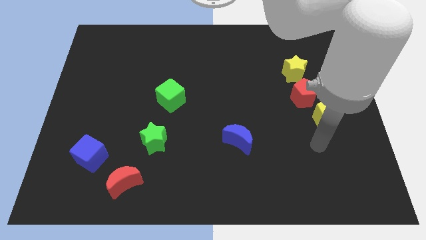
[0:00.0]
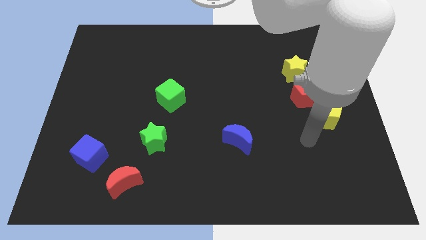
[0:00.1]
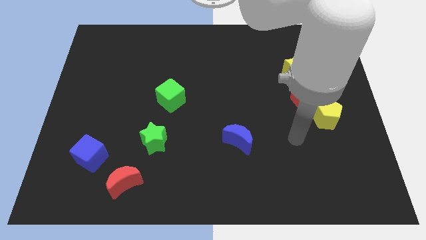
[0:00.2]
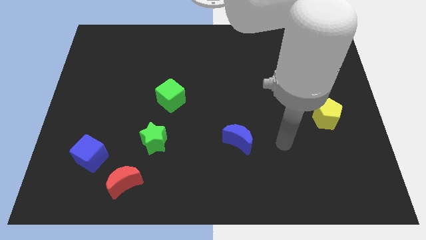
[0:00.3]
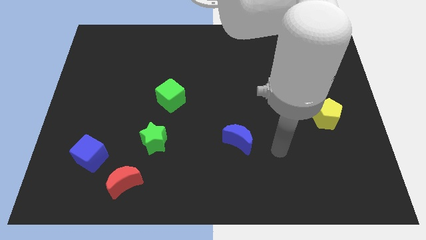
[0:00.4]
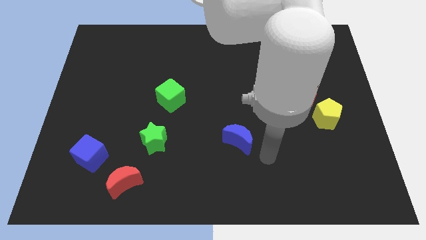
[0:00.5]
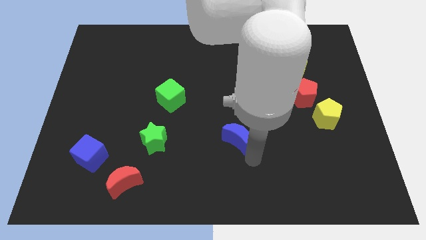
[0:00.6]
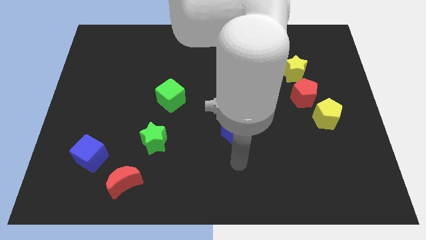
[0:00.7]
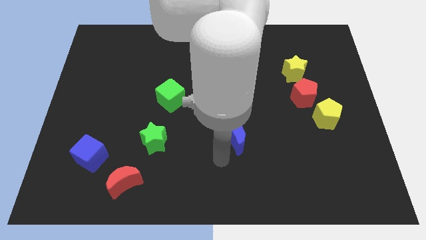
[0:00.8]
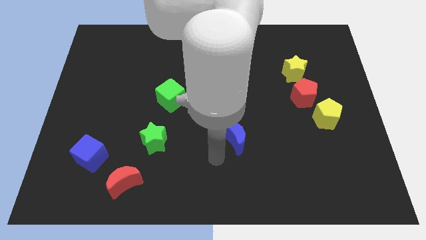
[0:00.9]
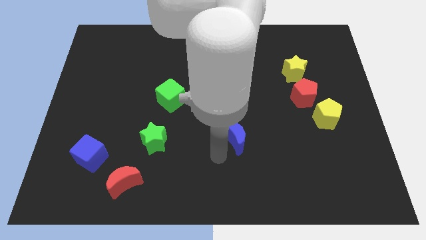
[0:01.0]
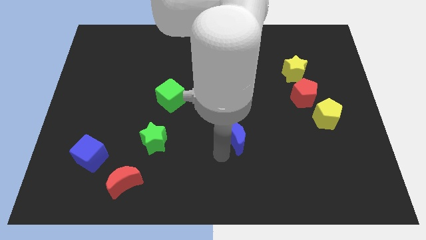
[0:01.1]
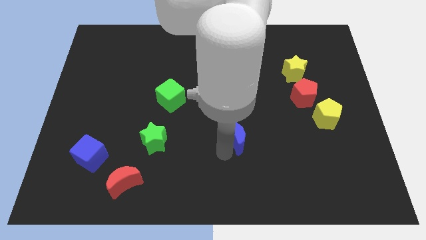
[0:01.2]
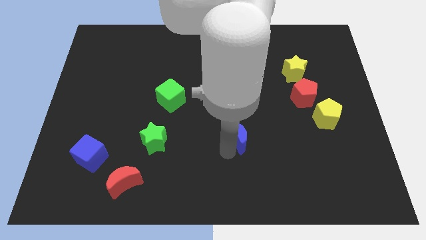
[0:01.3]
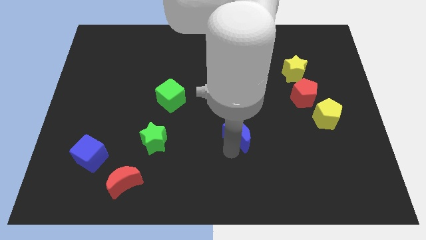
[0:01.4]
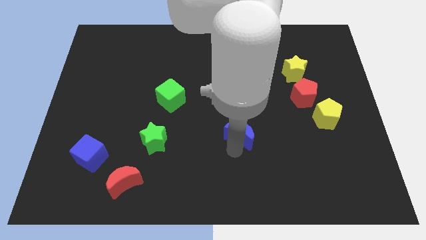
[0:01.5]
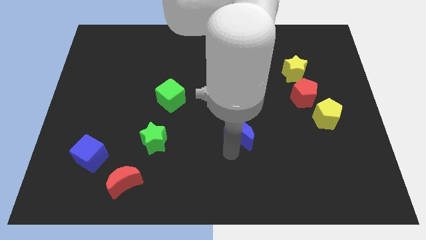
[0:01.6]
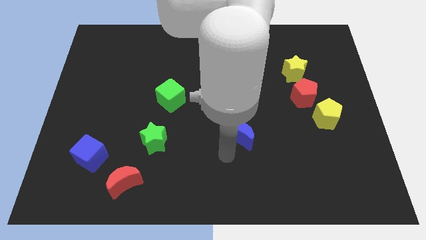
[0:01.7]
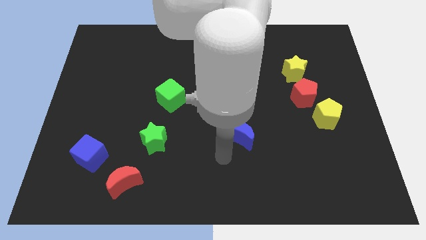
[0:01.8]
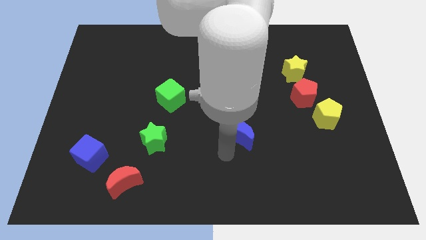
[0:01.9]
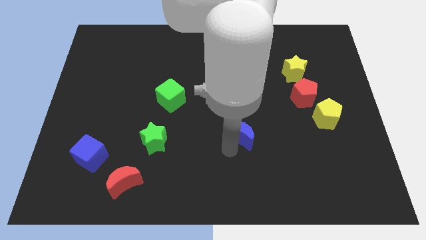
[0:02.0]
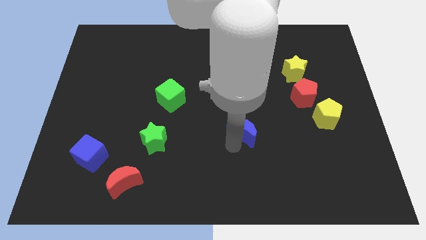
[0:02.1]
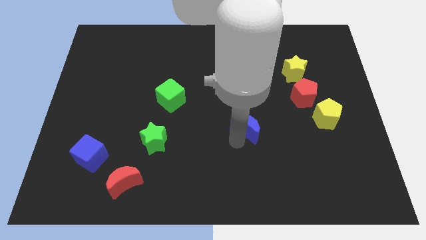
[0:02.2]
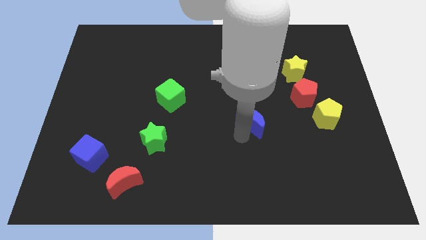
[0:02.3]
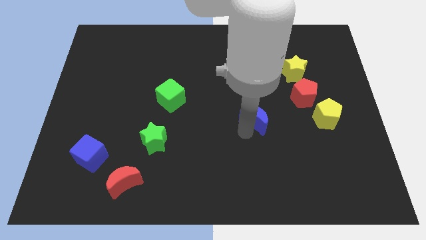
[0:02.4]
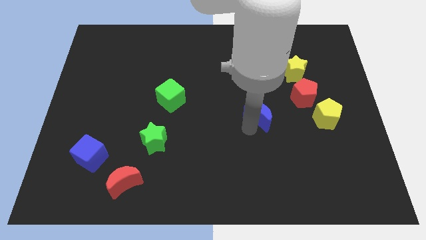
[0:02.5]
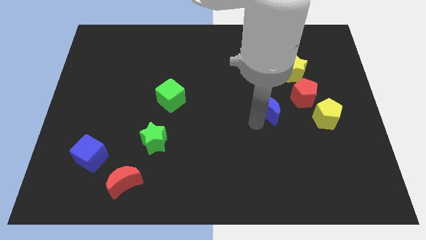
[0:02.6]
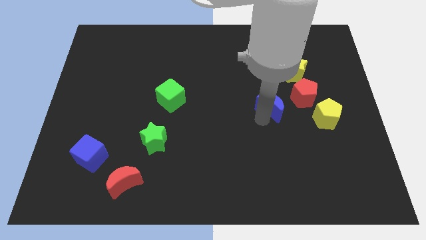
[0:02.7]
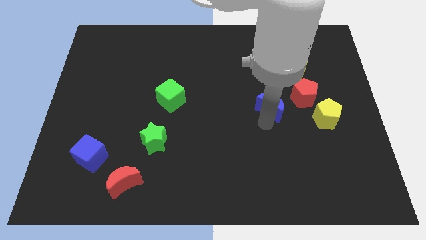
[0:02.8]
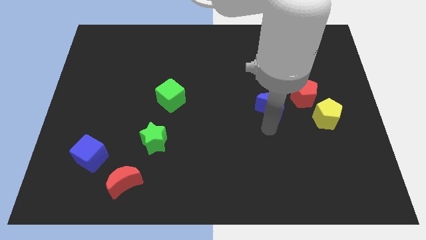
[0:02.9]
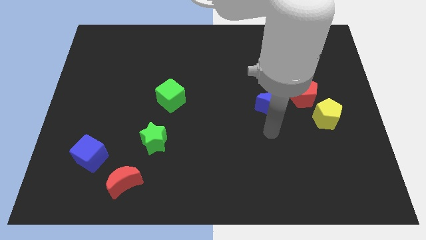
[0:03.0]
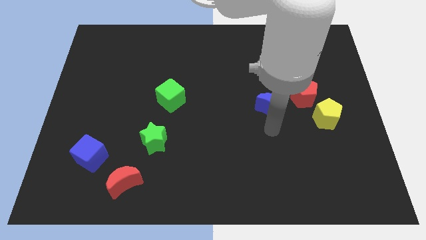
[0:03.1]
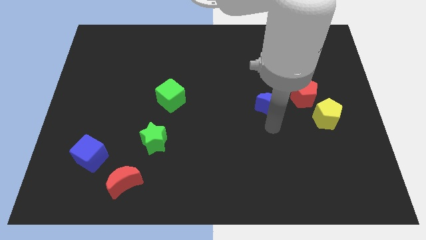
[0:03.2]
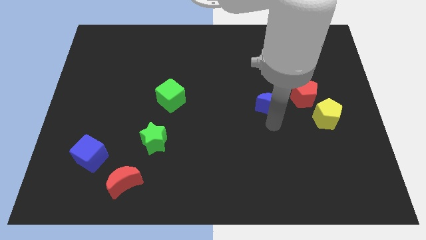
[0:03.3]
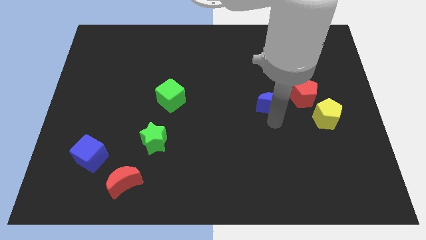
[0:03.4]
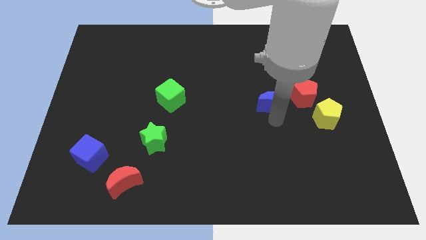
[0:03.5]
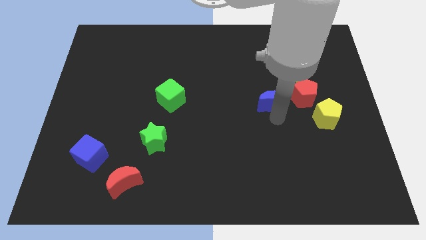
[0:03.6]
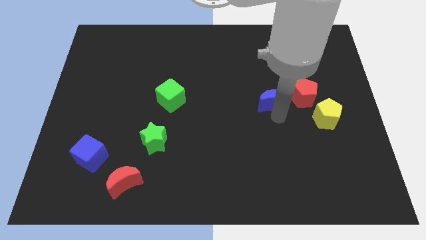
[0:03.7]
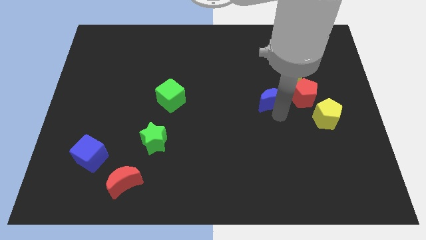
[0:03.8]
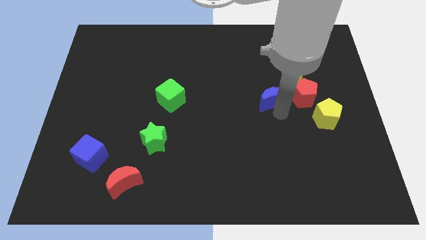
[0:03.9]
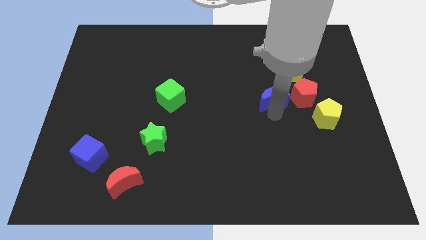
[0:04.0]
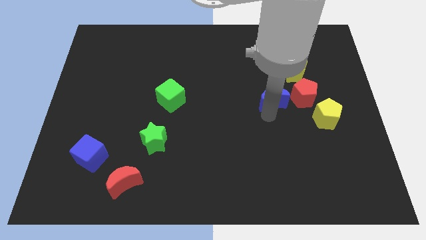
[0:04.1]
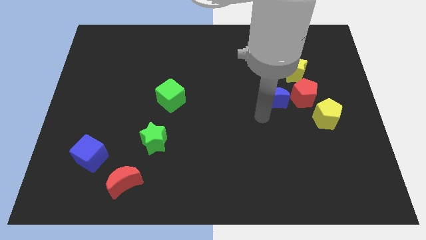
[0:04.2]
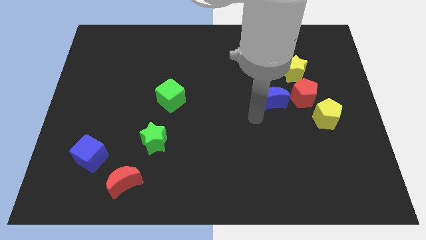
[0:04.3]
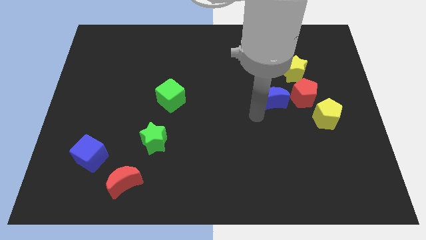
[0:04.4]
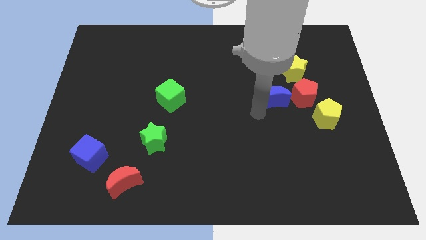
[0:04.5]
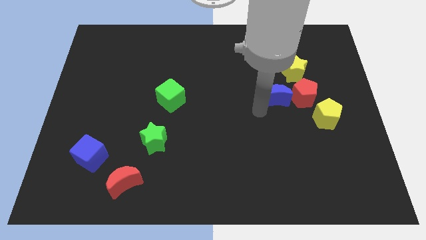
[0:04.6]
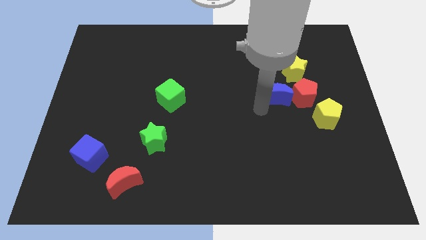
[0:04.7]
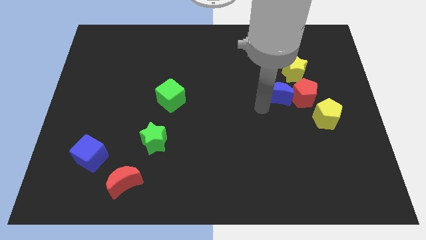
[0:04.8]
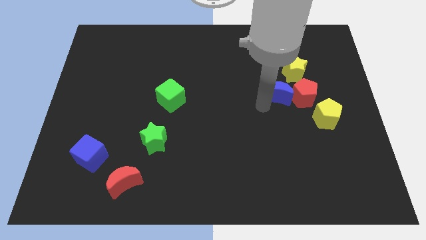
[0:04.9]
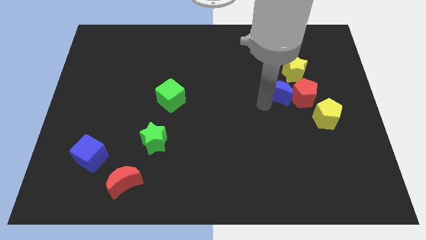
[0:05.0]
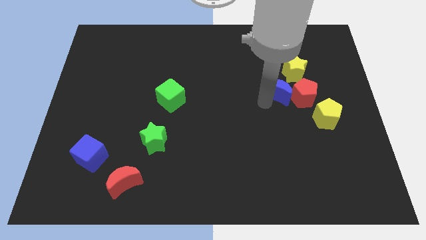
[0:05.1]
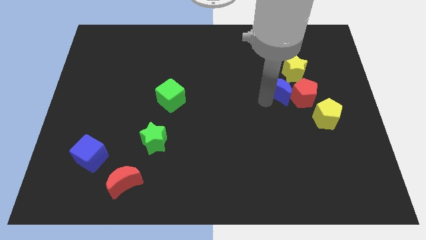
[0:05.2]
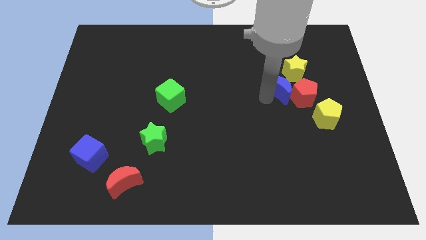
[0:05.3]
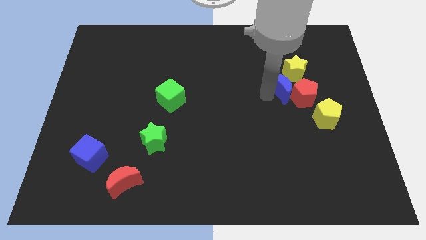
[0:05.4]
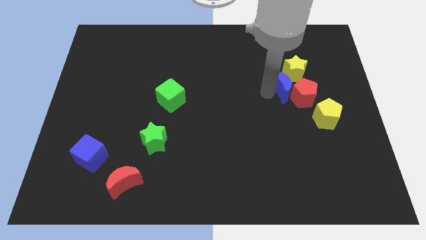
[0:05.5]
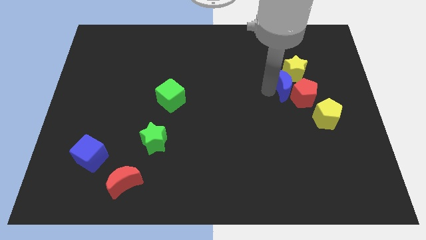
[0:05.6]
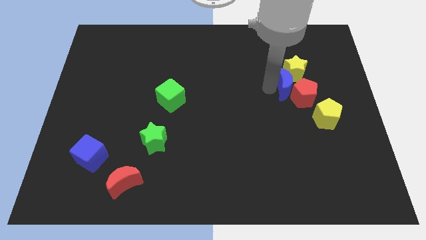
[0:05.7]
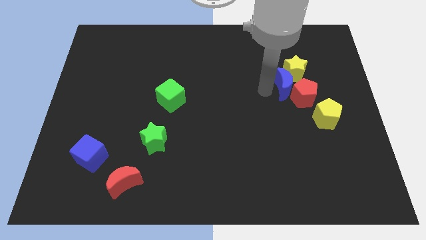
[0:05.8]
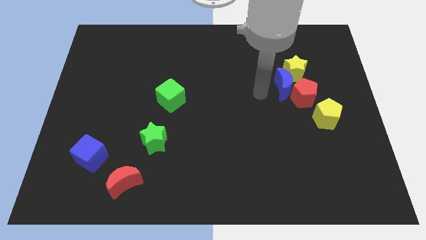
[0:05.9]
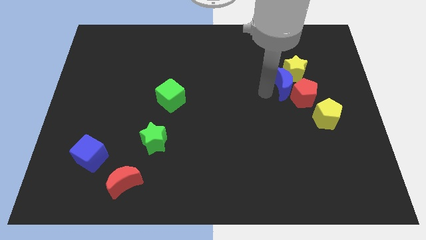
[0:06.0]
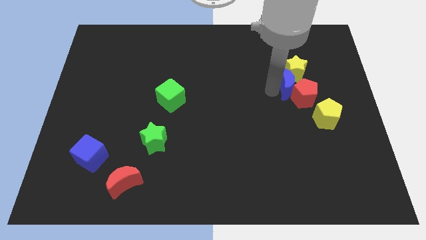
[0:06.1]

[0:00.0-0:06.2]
slide the blue moon up and to the right diagonally

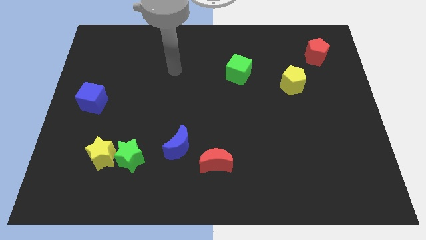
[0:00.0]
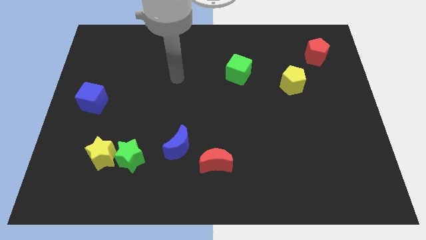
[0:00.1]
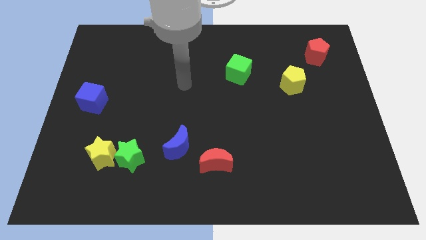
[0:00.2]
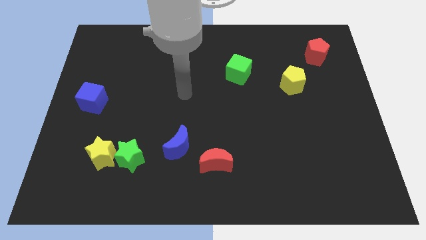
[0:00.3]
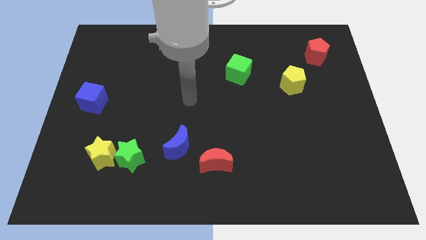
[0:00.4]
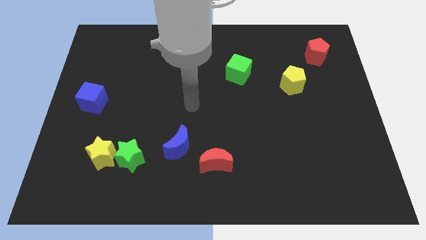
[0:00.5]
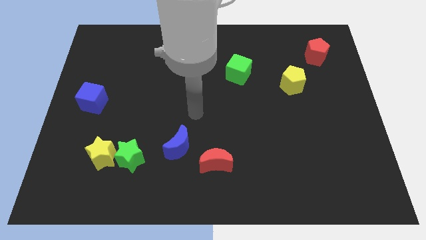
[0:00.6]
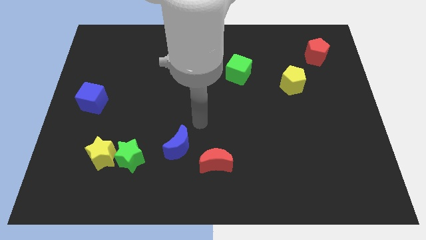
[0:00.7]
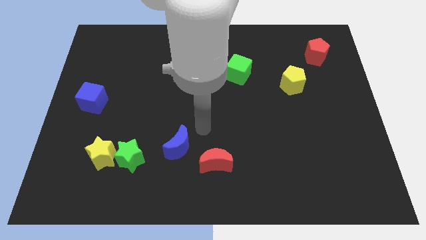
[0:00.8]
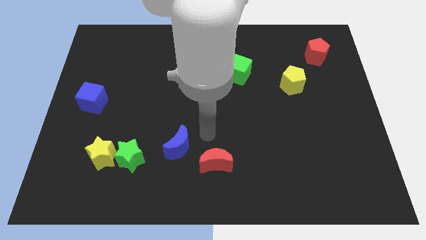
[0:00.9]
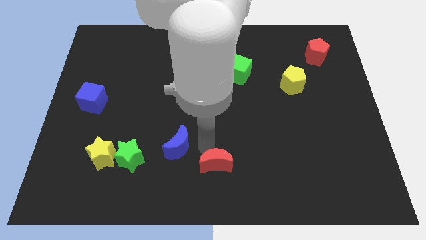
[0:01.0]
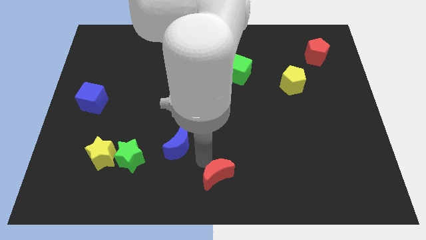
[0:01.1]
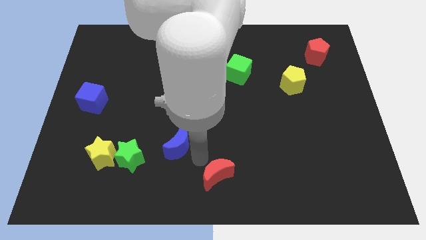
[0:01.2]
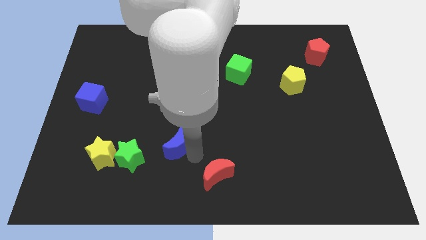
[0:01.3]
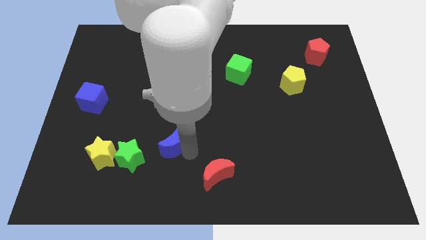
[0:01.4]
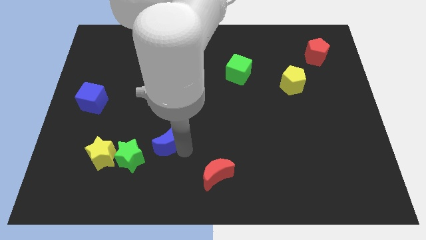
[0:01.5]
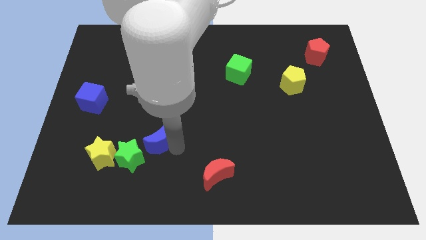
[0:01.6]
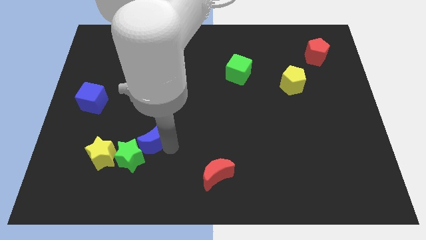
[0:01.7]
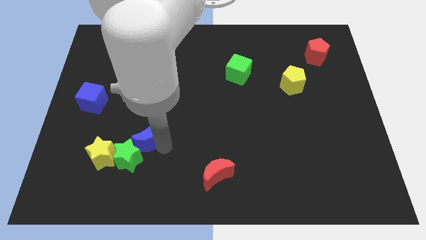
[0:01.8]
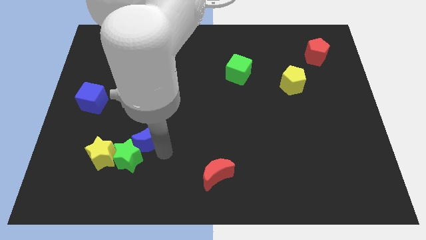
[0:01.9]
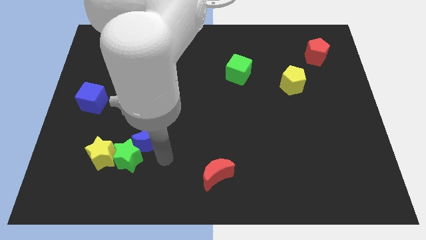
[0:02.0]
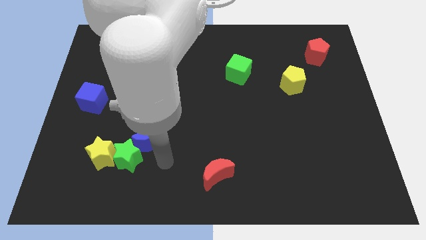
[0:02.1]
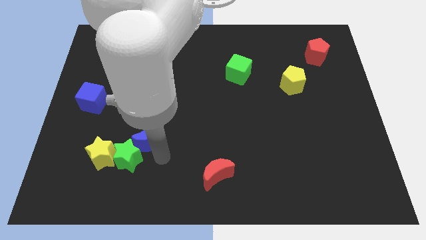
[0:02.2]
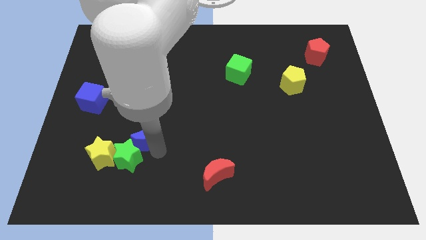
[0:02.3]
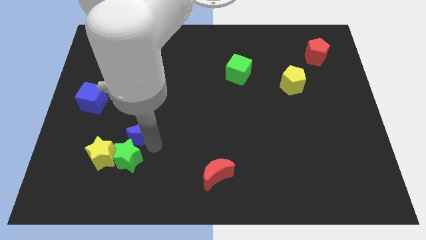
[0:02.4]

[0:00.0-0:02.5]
push the blue moon somewhat upwards and then left
